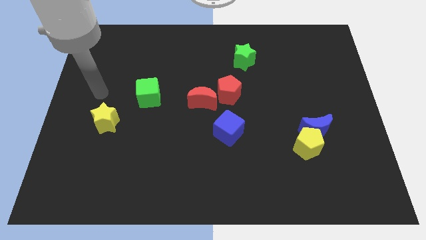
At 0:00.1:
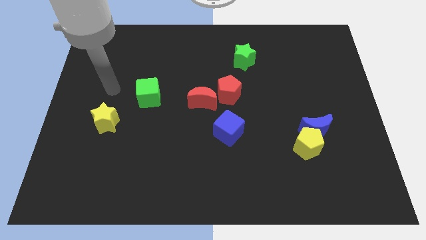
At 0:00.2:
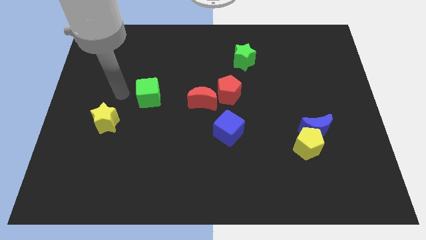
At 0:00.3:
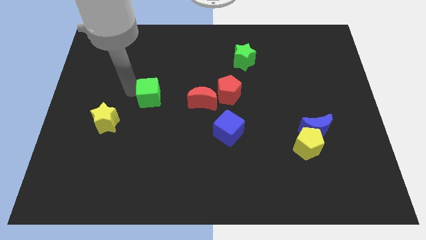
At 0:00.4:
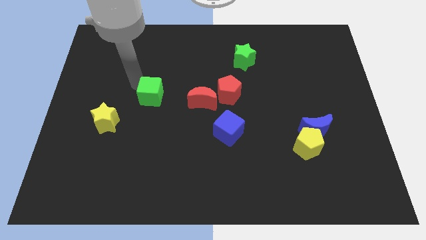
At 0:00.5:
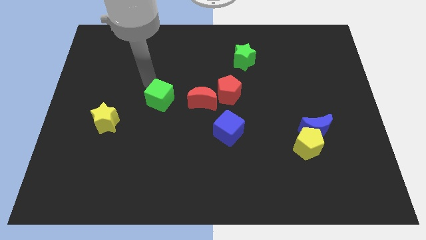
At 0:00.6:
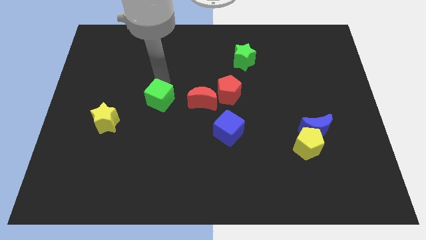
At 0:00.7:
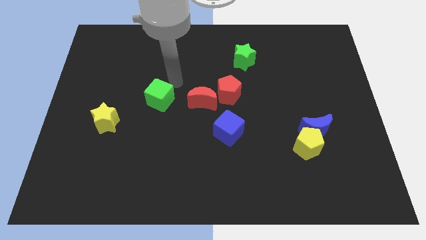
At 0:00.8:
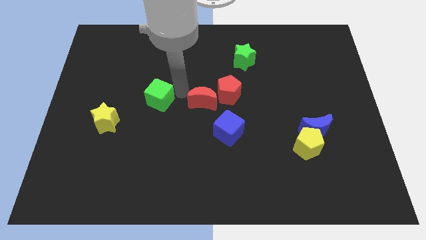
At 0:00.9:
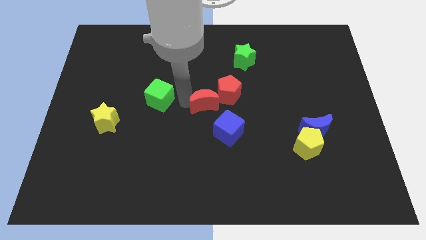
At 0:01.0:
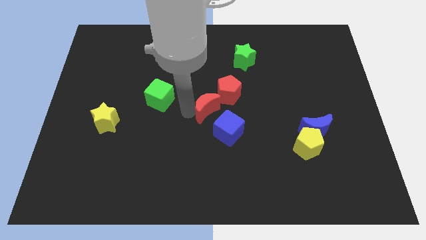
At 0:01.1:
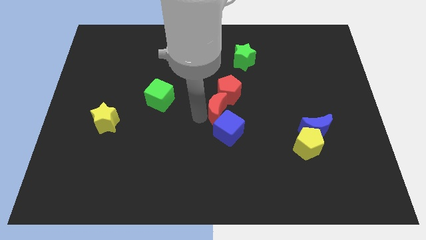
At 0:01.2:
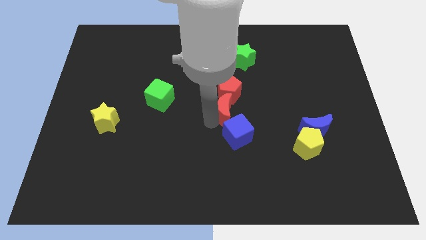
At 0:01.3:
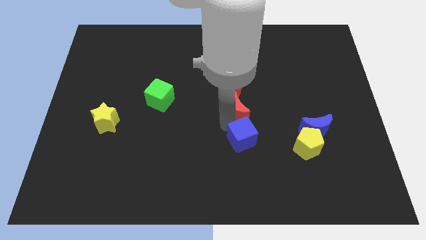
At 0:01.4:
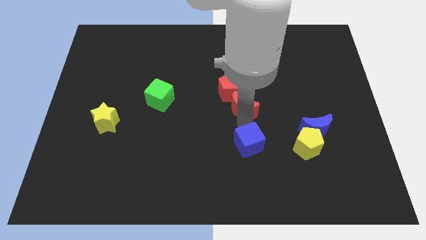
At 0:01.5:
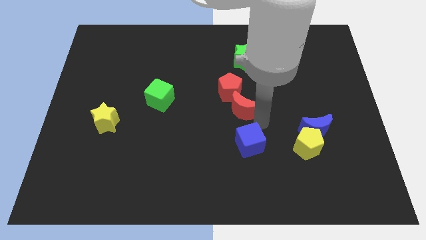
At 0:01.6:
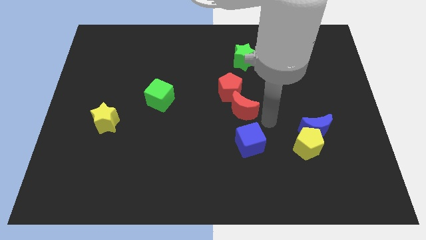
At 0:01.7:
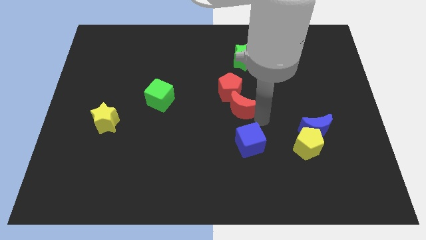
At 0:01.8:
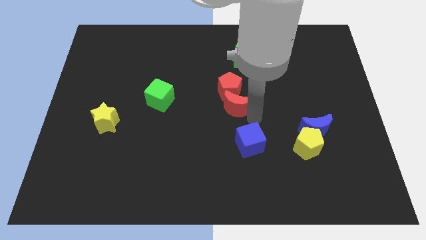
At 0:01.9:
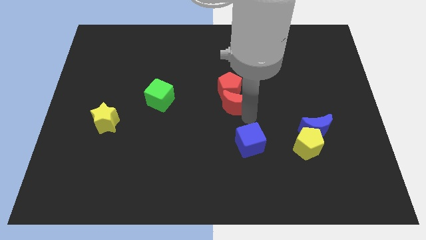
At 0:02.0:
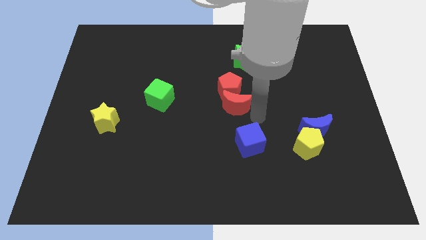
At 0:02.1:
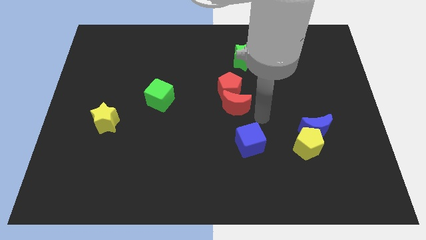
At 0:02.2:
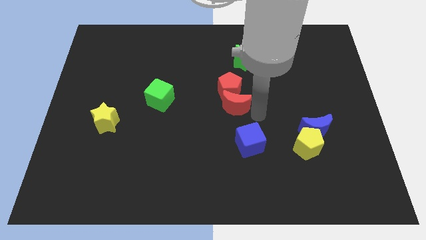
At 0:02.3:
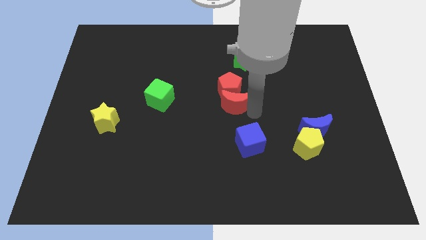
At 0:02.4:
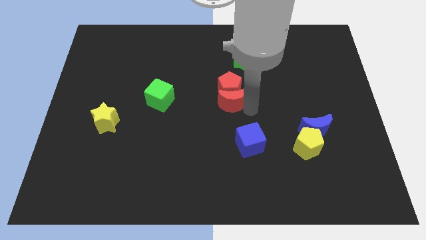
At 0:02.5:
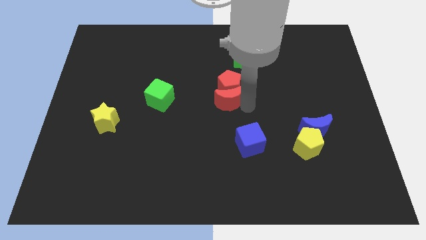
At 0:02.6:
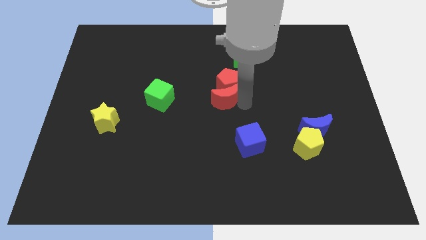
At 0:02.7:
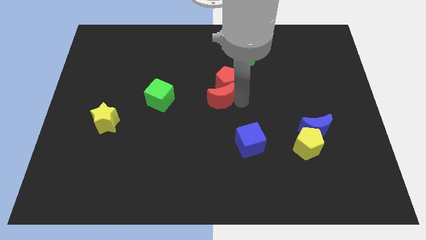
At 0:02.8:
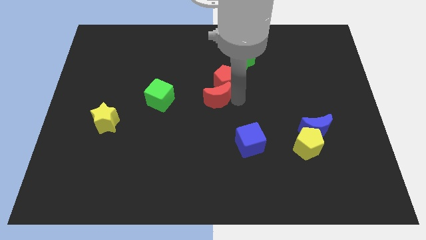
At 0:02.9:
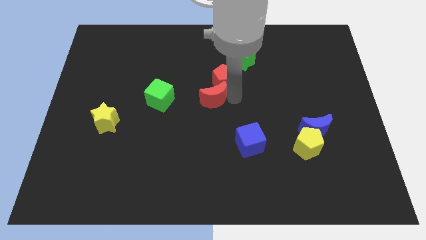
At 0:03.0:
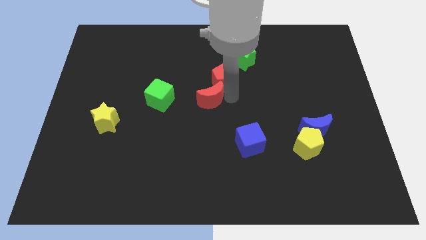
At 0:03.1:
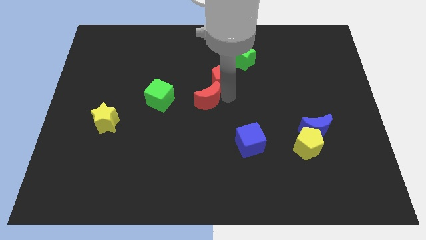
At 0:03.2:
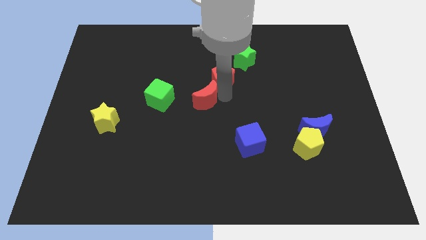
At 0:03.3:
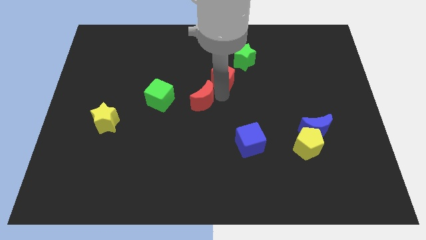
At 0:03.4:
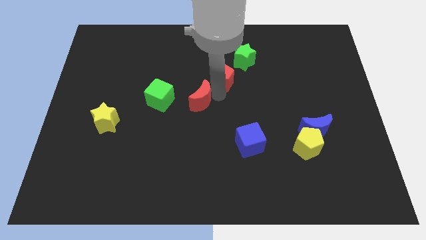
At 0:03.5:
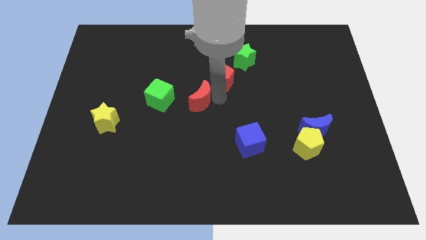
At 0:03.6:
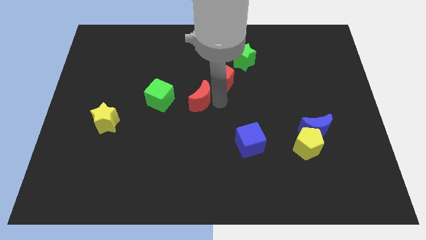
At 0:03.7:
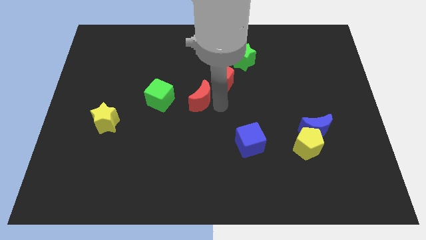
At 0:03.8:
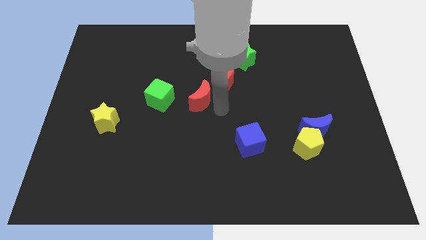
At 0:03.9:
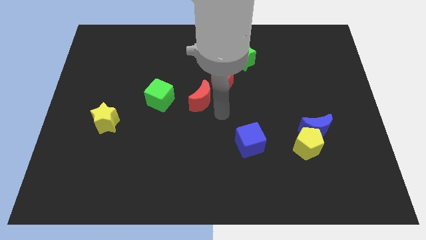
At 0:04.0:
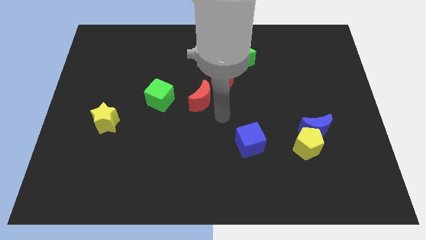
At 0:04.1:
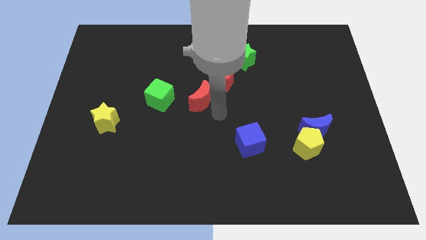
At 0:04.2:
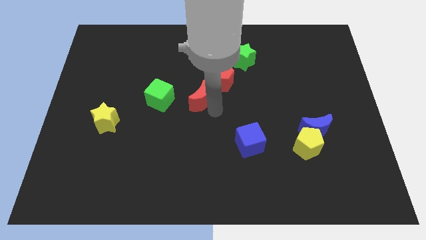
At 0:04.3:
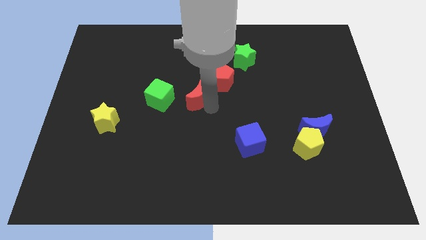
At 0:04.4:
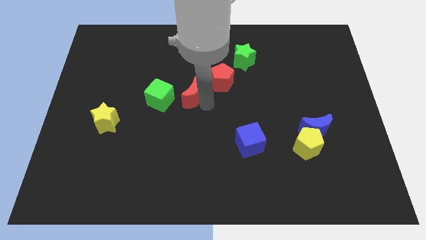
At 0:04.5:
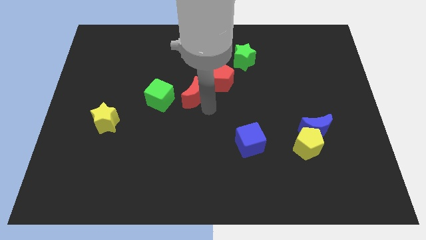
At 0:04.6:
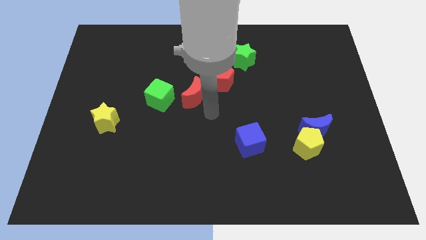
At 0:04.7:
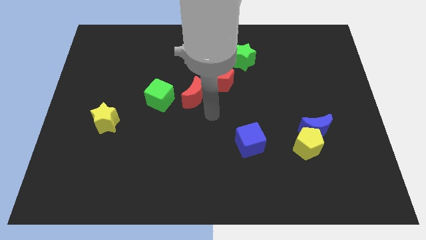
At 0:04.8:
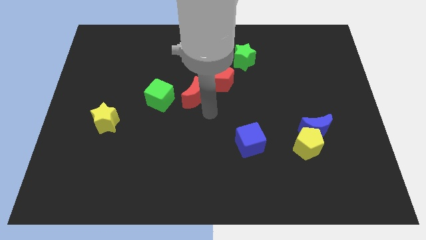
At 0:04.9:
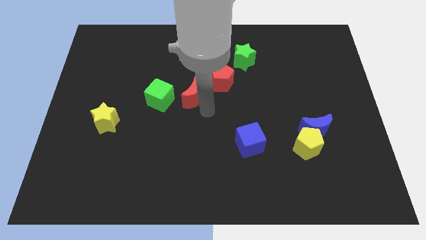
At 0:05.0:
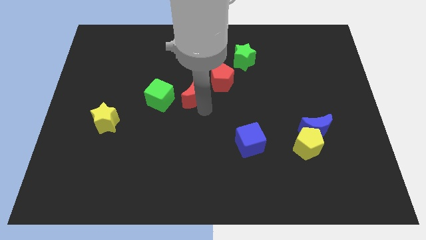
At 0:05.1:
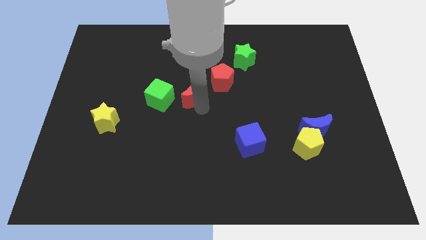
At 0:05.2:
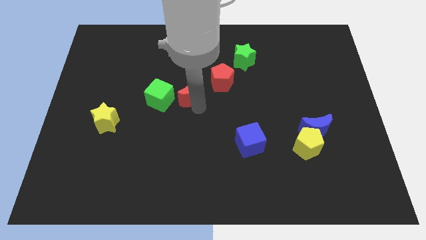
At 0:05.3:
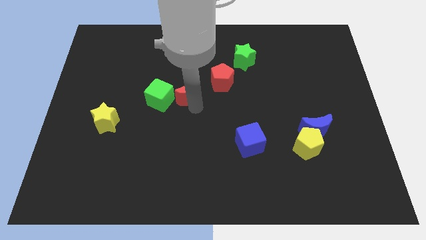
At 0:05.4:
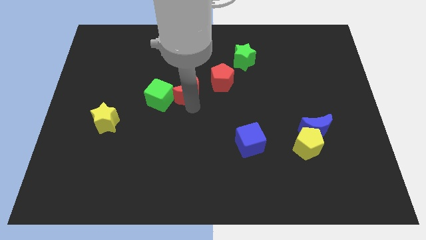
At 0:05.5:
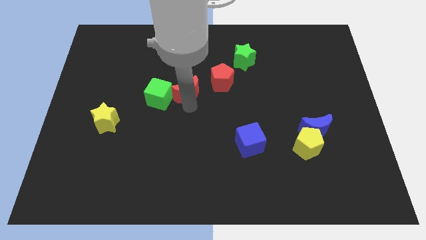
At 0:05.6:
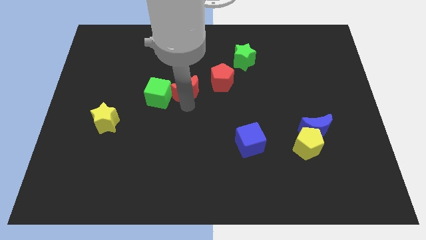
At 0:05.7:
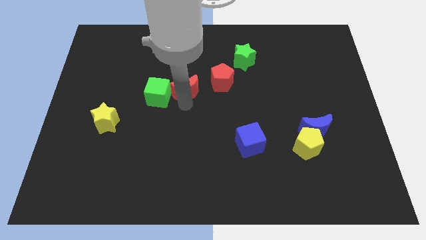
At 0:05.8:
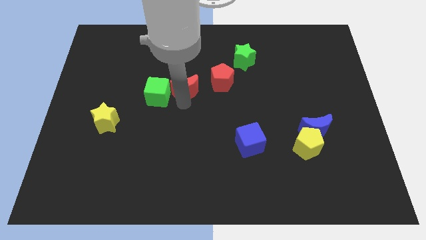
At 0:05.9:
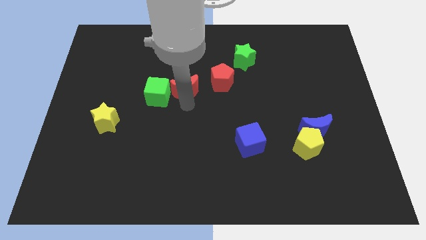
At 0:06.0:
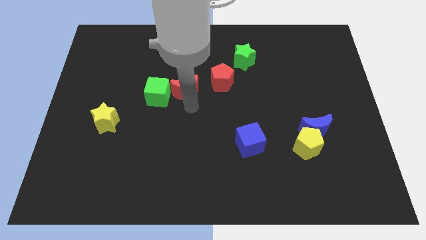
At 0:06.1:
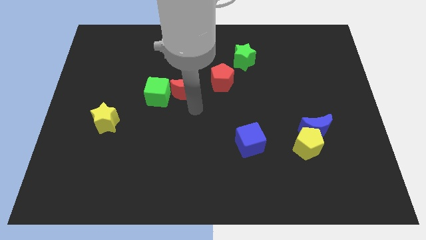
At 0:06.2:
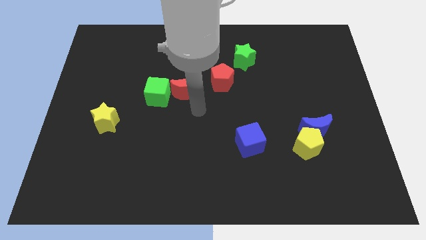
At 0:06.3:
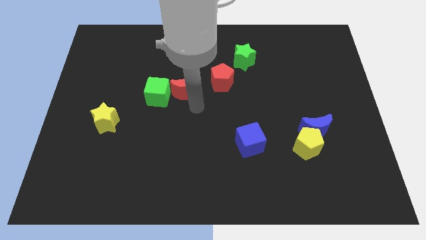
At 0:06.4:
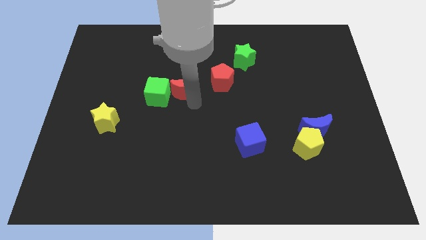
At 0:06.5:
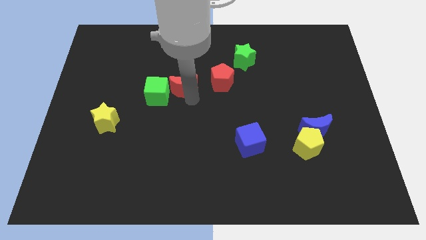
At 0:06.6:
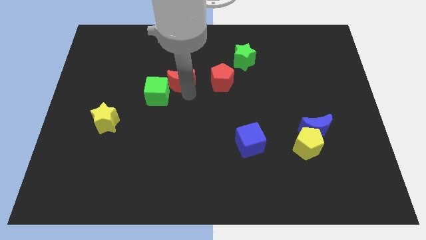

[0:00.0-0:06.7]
move the red moon a little upwards and then left

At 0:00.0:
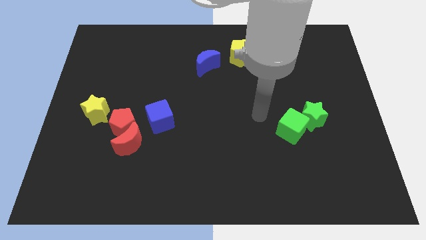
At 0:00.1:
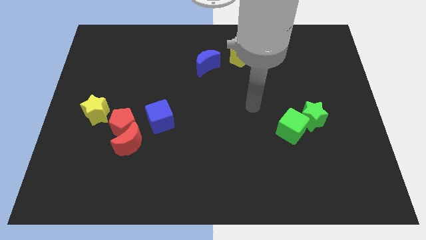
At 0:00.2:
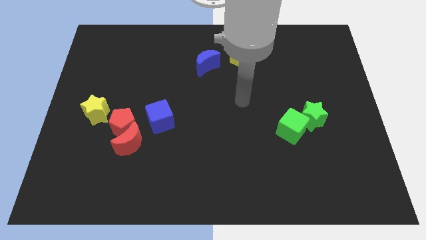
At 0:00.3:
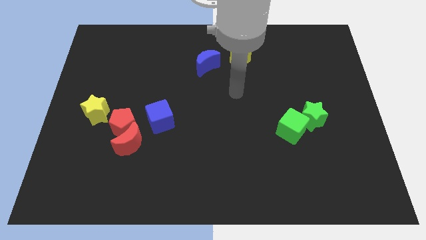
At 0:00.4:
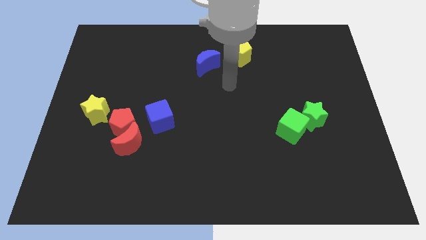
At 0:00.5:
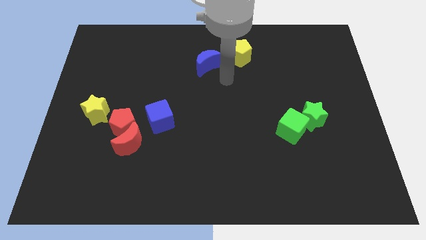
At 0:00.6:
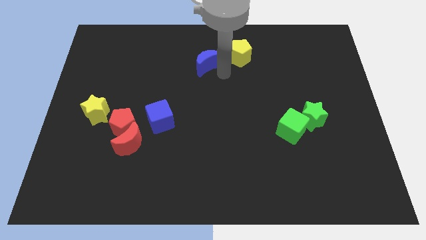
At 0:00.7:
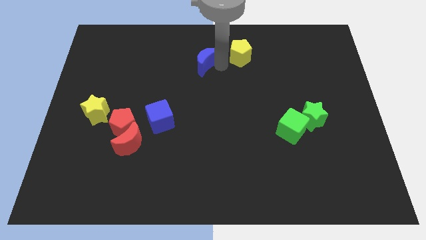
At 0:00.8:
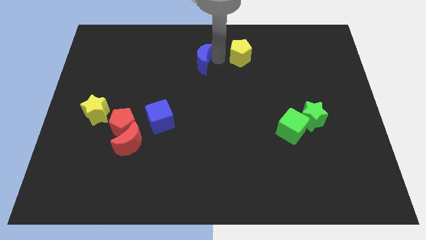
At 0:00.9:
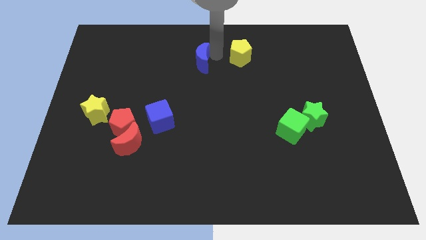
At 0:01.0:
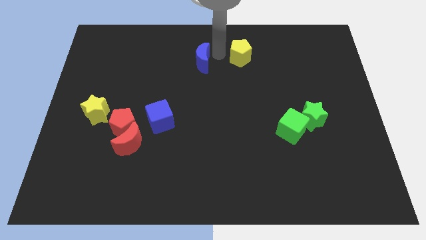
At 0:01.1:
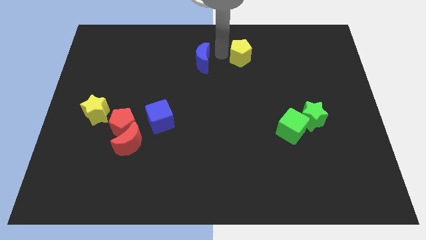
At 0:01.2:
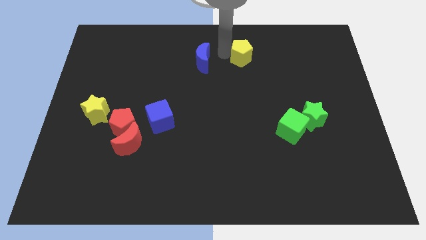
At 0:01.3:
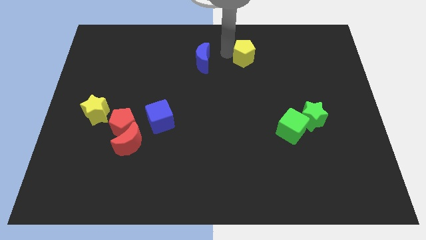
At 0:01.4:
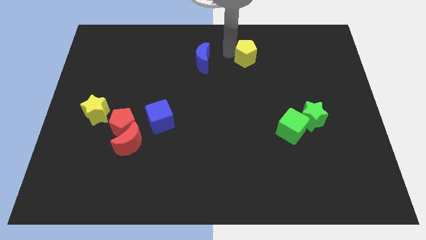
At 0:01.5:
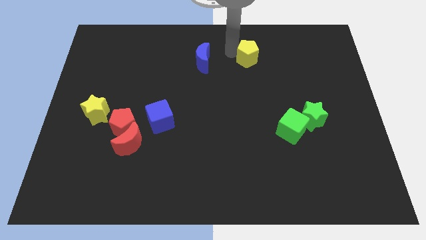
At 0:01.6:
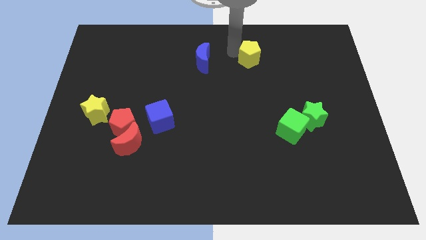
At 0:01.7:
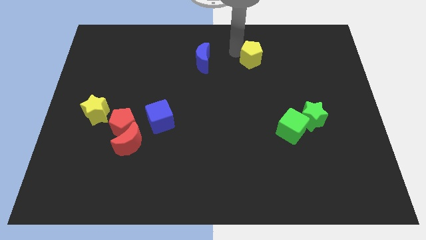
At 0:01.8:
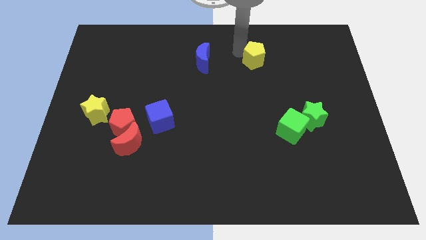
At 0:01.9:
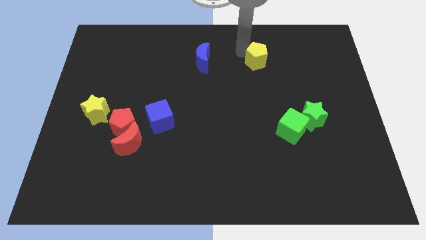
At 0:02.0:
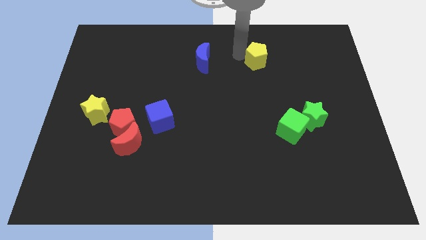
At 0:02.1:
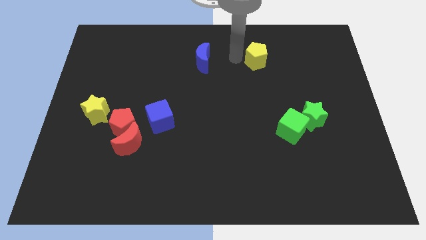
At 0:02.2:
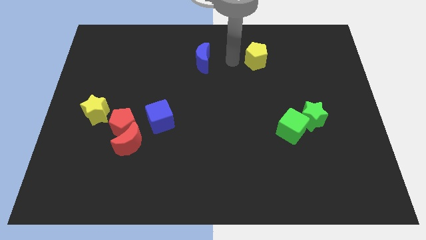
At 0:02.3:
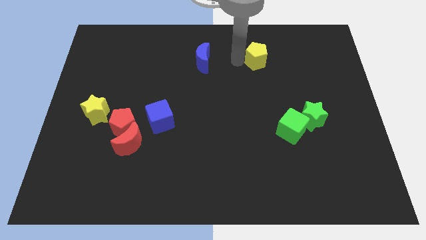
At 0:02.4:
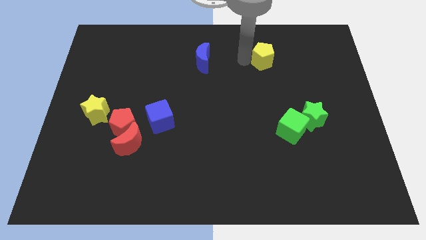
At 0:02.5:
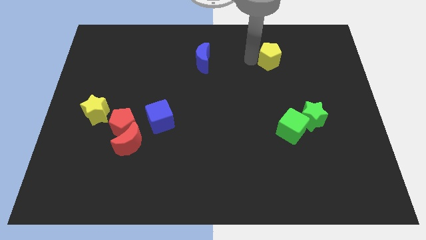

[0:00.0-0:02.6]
push the yellow pentagon slightly to the right
